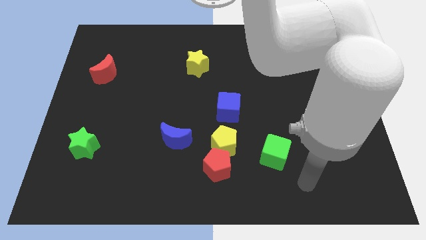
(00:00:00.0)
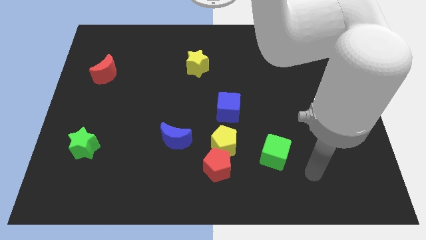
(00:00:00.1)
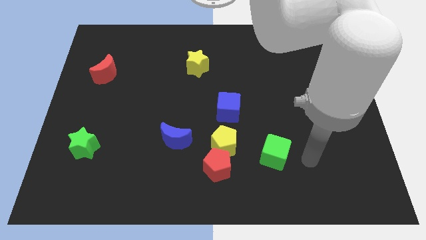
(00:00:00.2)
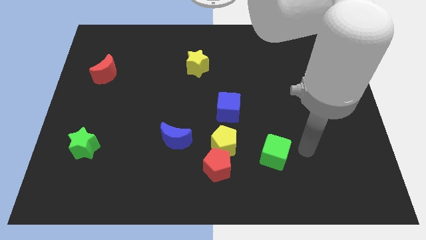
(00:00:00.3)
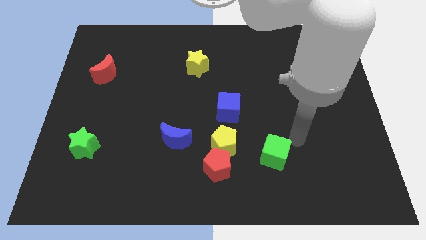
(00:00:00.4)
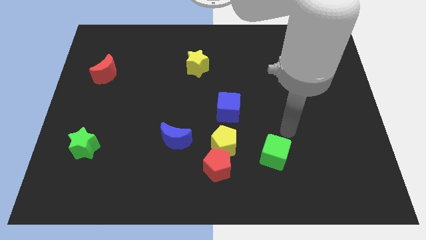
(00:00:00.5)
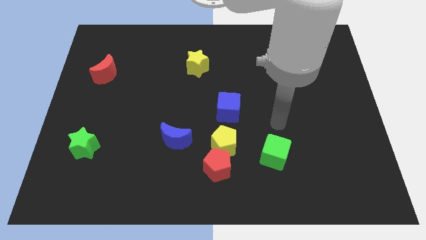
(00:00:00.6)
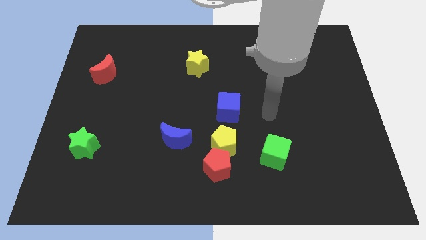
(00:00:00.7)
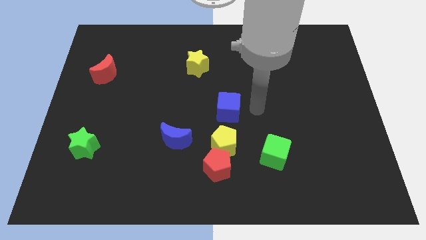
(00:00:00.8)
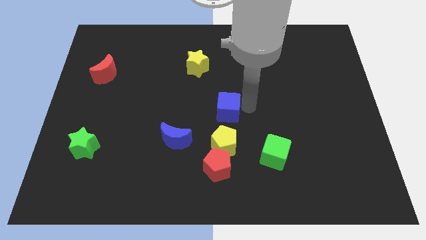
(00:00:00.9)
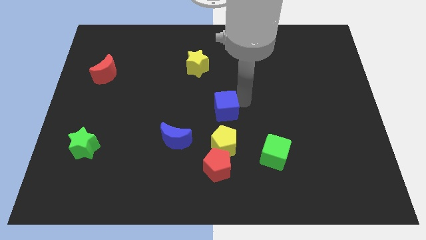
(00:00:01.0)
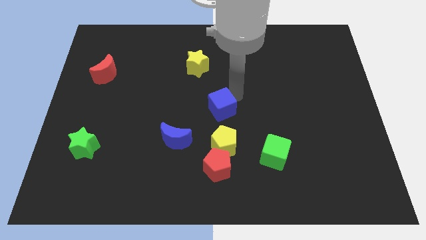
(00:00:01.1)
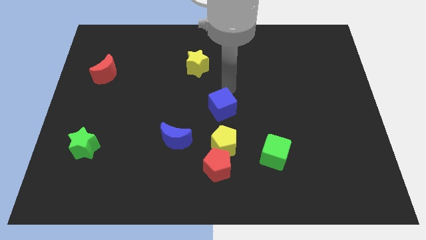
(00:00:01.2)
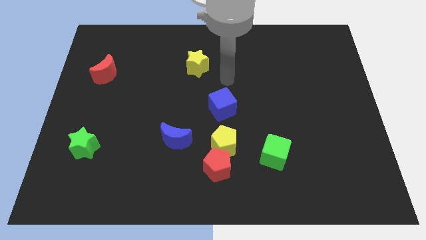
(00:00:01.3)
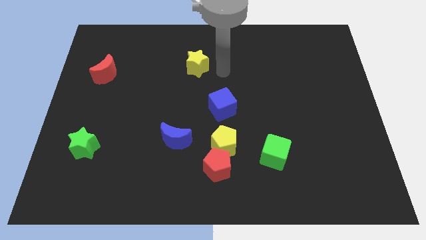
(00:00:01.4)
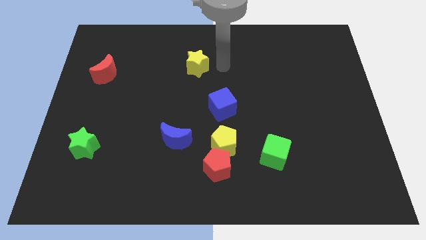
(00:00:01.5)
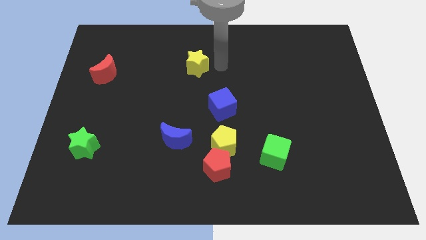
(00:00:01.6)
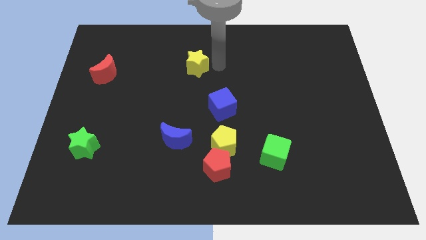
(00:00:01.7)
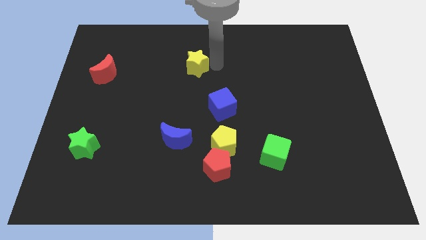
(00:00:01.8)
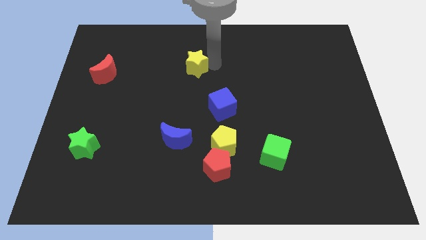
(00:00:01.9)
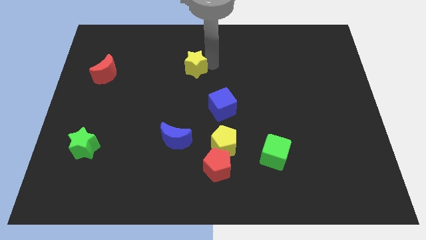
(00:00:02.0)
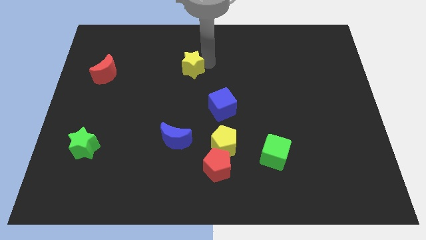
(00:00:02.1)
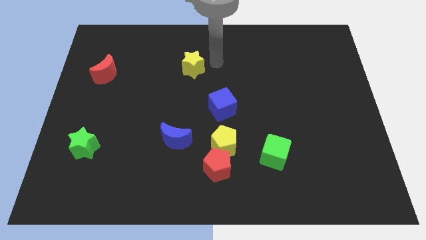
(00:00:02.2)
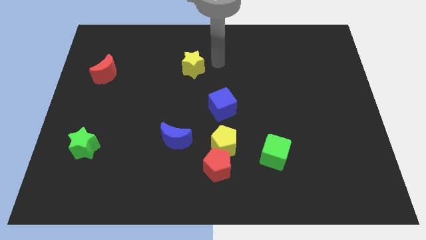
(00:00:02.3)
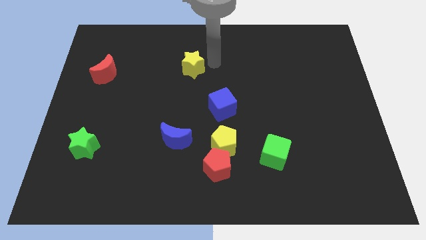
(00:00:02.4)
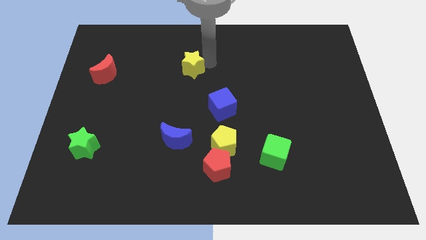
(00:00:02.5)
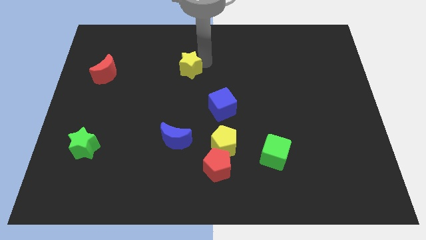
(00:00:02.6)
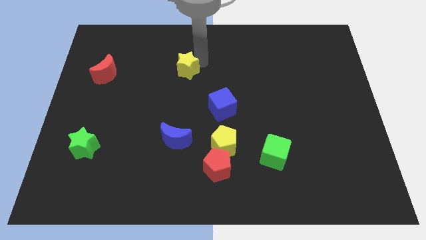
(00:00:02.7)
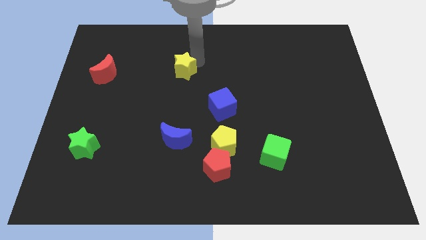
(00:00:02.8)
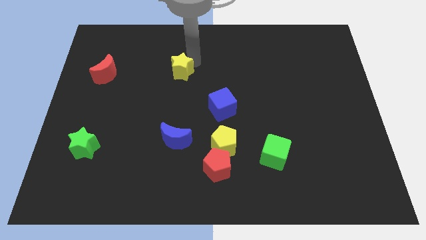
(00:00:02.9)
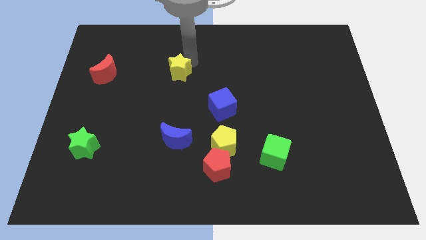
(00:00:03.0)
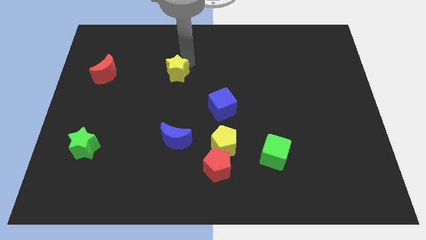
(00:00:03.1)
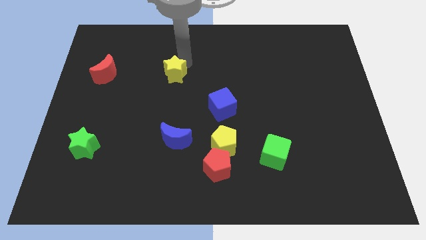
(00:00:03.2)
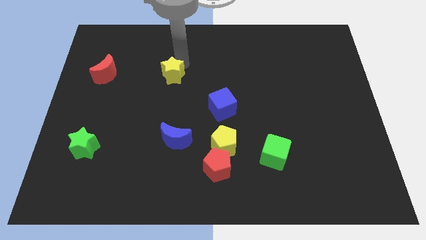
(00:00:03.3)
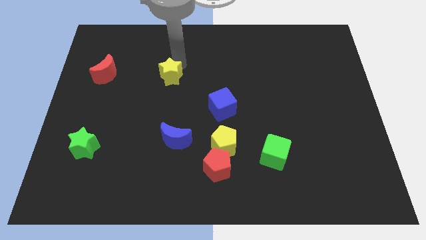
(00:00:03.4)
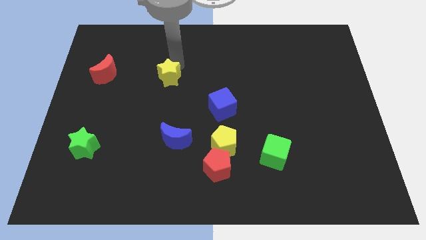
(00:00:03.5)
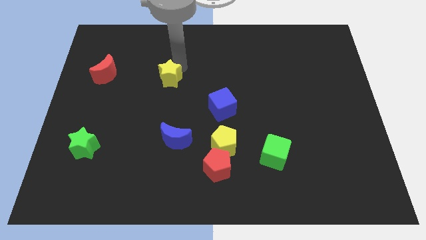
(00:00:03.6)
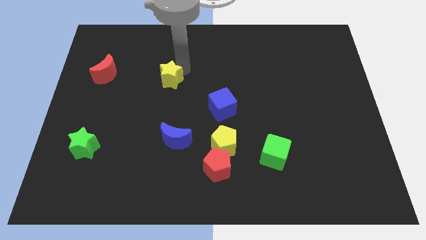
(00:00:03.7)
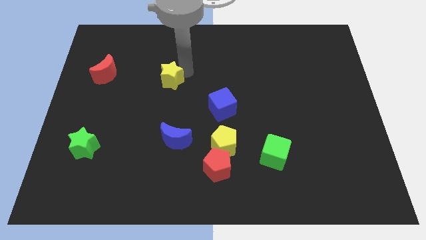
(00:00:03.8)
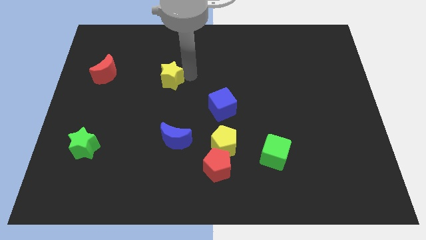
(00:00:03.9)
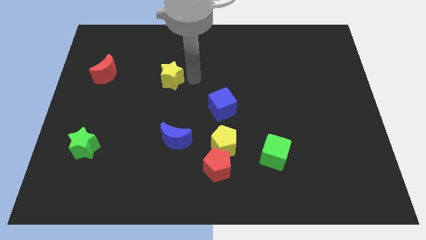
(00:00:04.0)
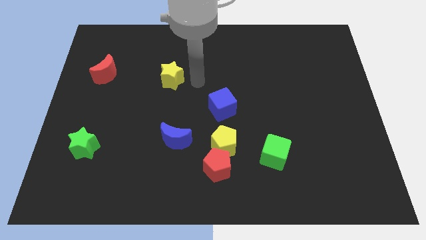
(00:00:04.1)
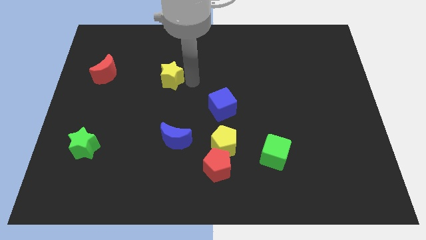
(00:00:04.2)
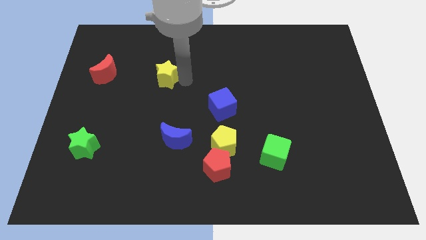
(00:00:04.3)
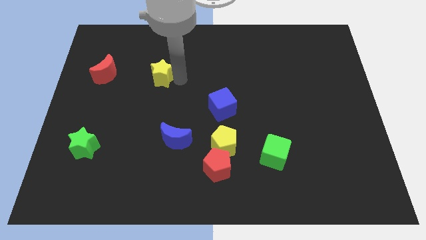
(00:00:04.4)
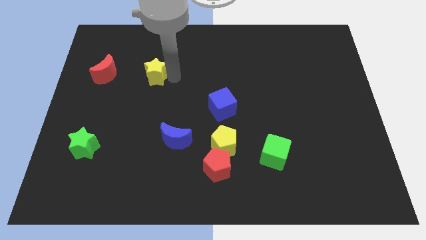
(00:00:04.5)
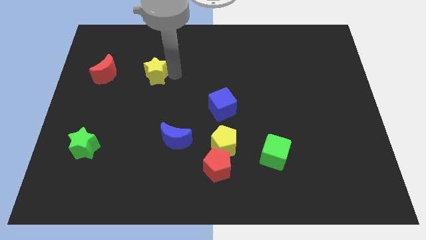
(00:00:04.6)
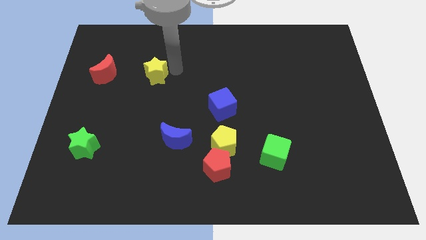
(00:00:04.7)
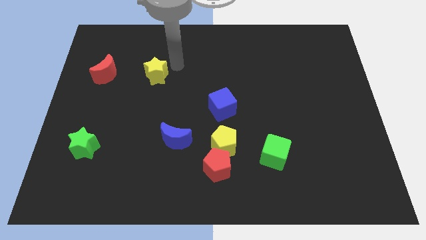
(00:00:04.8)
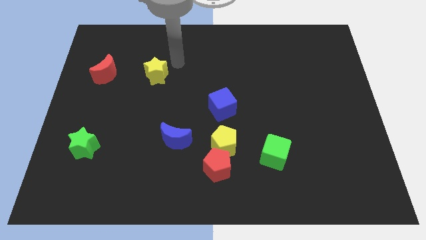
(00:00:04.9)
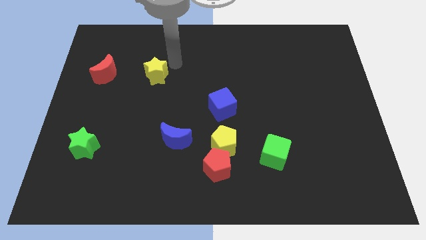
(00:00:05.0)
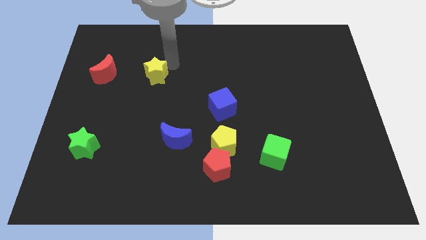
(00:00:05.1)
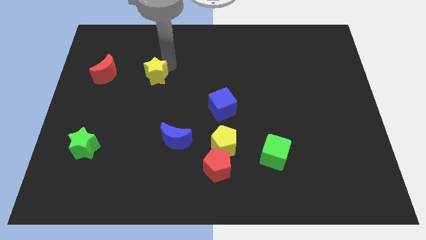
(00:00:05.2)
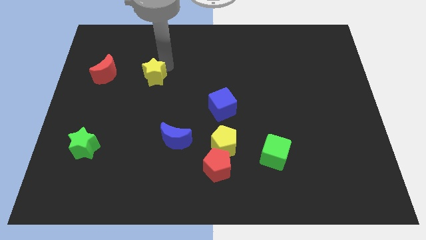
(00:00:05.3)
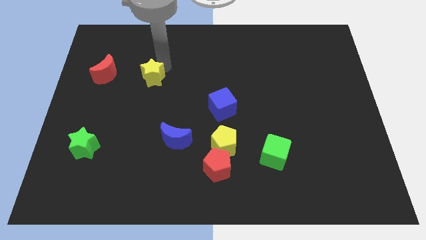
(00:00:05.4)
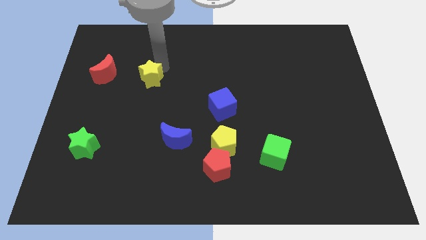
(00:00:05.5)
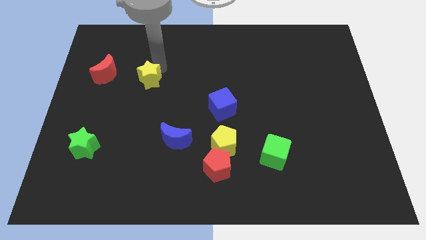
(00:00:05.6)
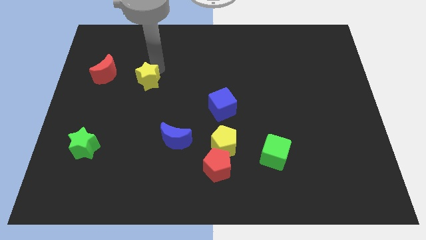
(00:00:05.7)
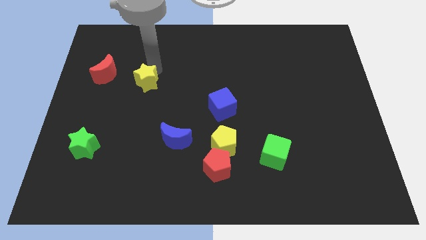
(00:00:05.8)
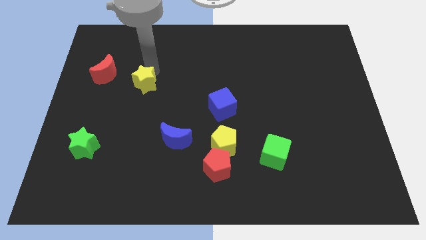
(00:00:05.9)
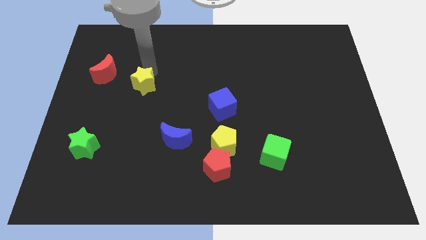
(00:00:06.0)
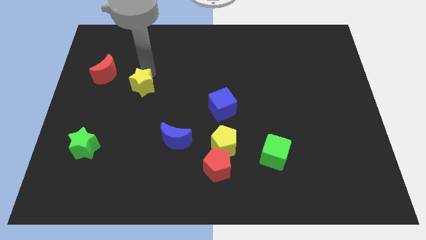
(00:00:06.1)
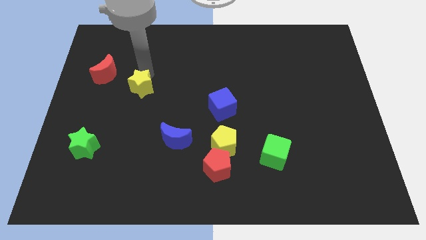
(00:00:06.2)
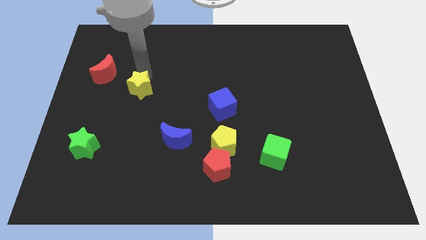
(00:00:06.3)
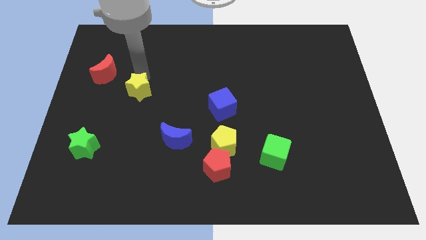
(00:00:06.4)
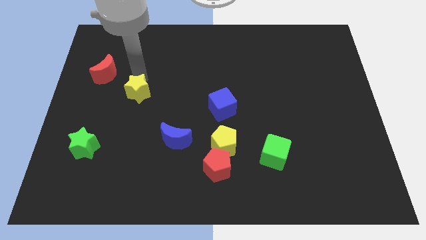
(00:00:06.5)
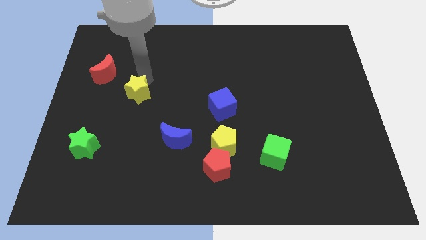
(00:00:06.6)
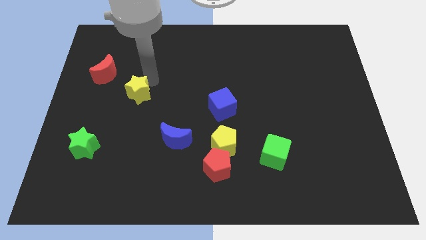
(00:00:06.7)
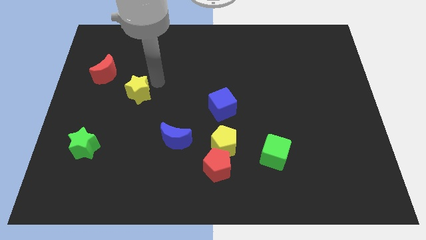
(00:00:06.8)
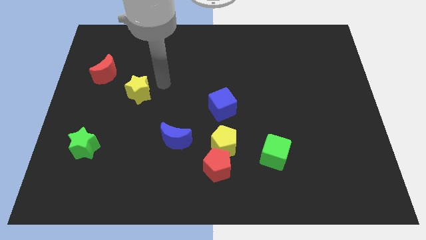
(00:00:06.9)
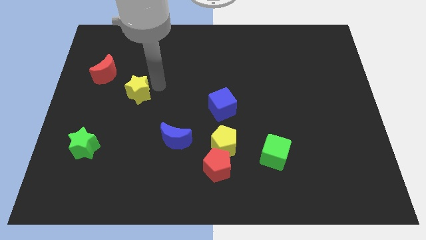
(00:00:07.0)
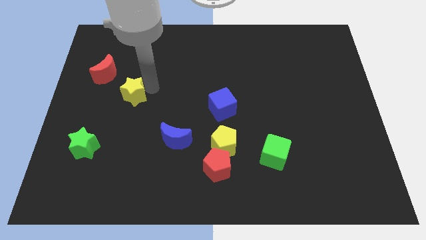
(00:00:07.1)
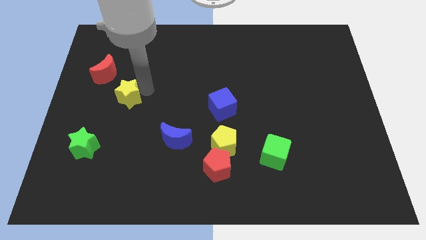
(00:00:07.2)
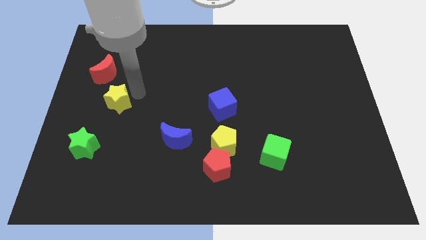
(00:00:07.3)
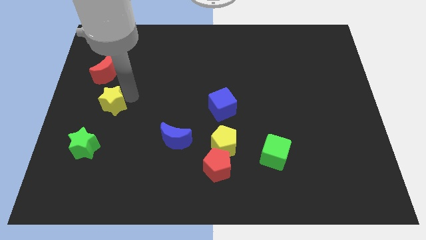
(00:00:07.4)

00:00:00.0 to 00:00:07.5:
put the yellow star to the top of the green star

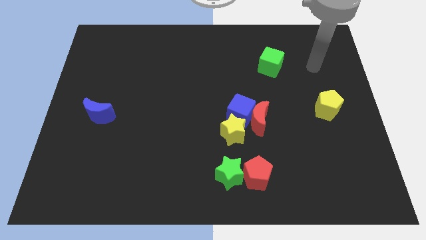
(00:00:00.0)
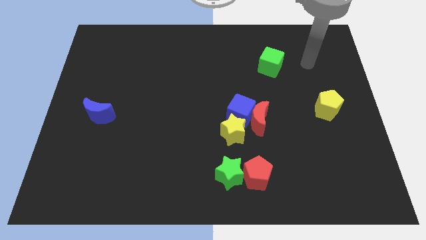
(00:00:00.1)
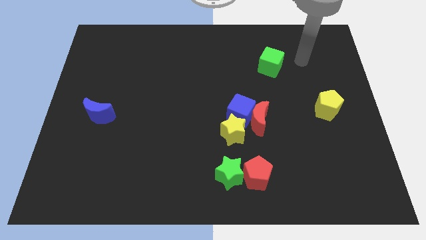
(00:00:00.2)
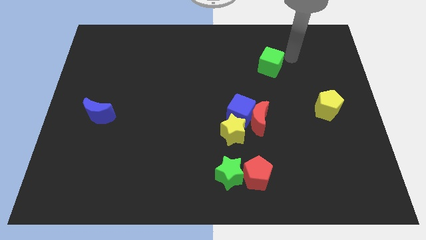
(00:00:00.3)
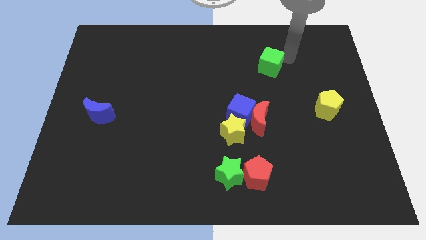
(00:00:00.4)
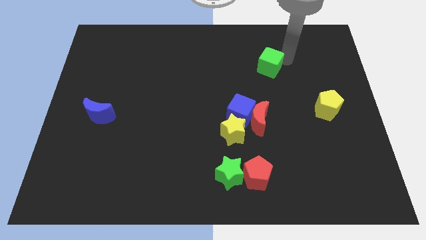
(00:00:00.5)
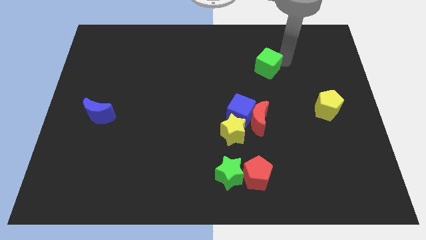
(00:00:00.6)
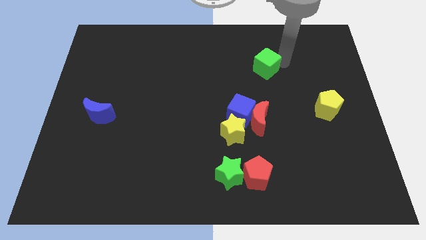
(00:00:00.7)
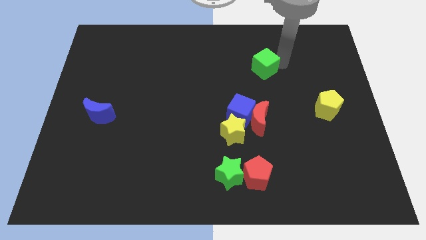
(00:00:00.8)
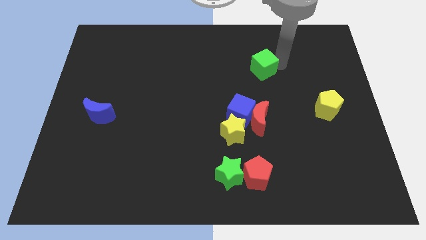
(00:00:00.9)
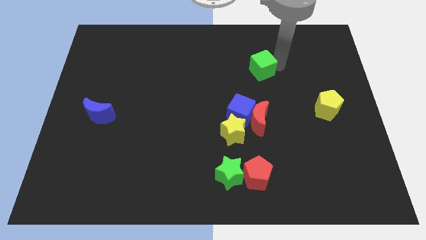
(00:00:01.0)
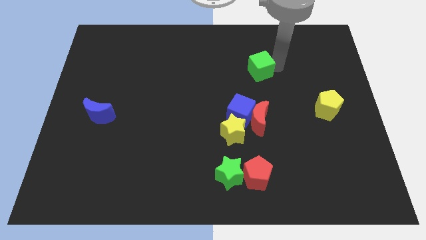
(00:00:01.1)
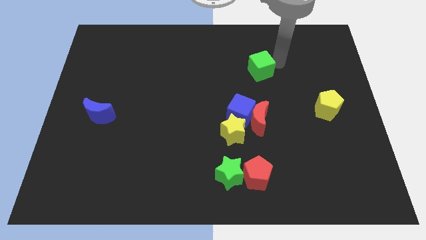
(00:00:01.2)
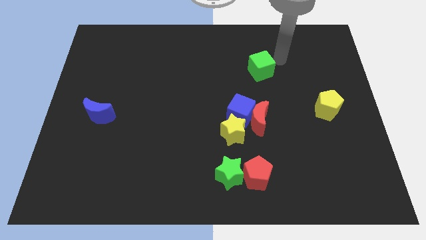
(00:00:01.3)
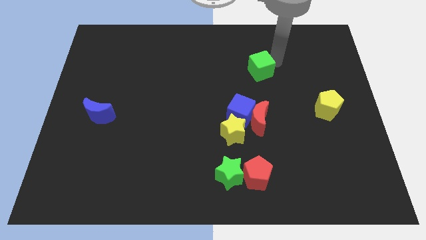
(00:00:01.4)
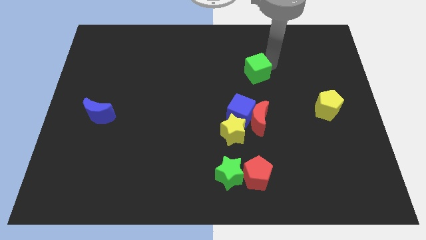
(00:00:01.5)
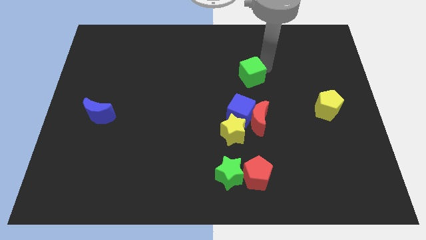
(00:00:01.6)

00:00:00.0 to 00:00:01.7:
push the green cube above the blue cube
